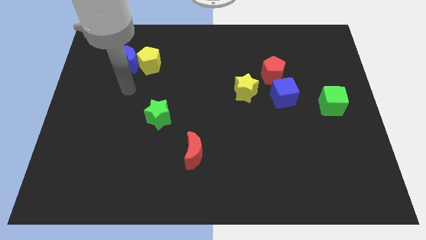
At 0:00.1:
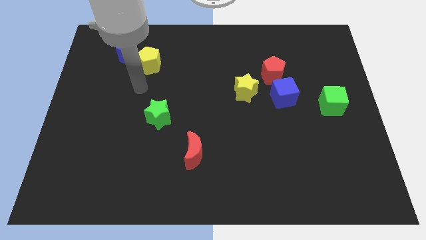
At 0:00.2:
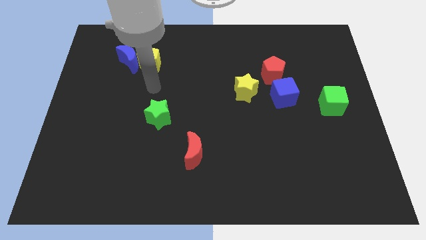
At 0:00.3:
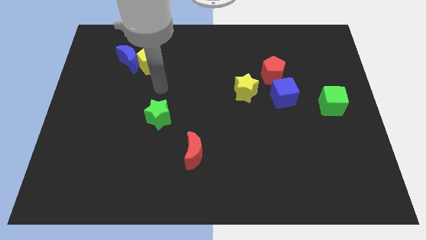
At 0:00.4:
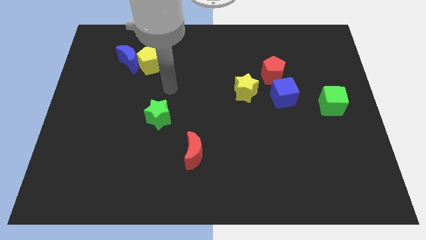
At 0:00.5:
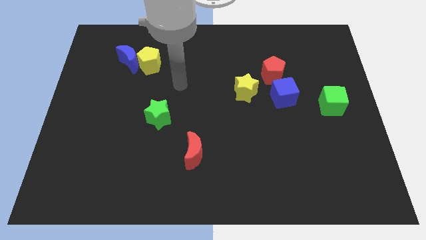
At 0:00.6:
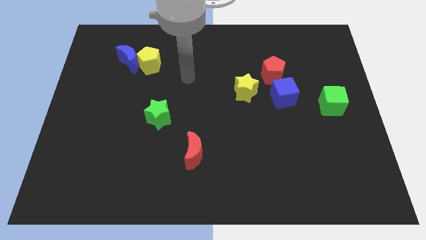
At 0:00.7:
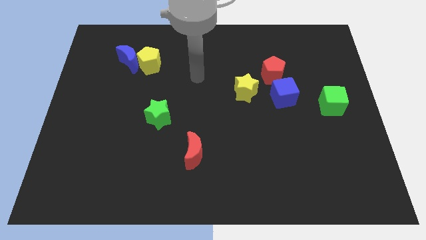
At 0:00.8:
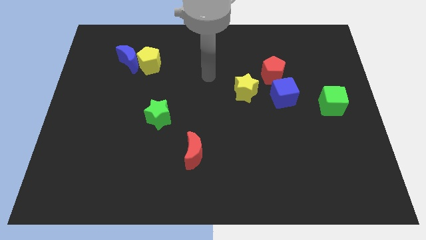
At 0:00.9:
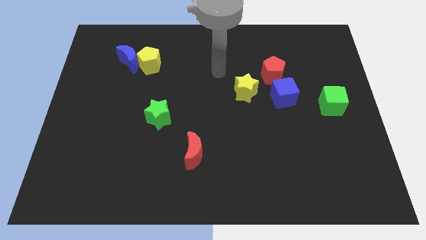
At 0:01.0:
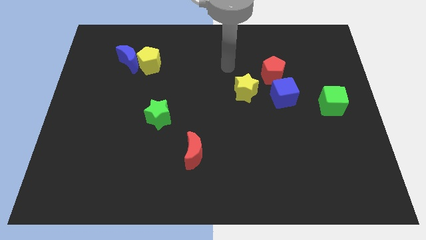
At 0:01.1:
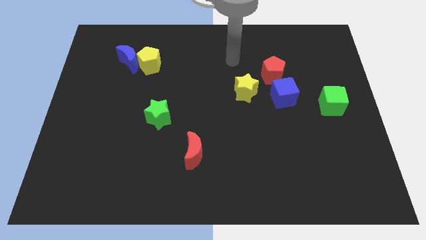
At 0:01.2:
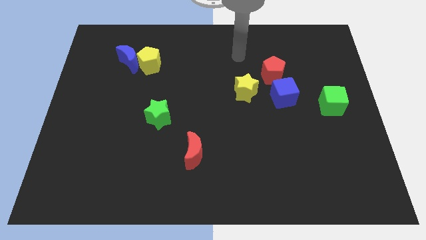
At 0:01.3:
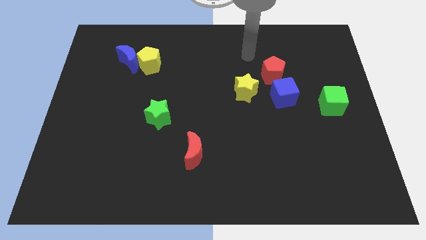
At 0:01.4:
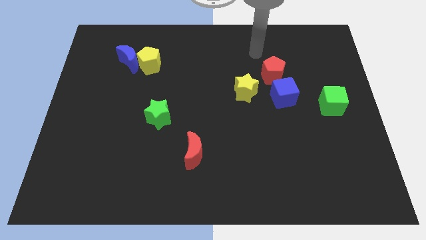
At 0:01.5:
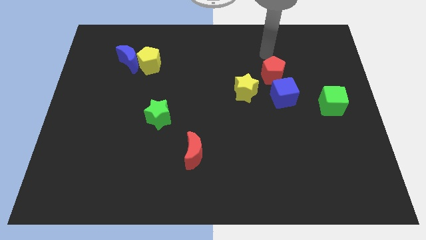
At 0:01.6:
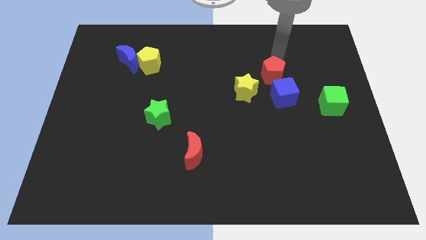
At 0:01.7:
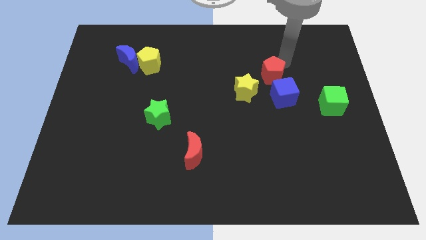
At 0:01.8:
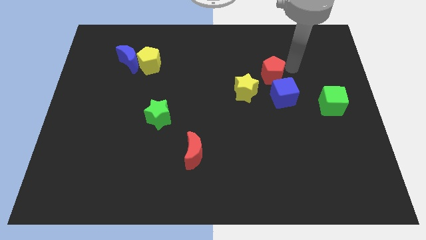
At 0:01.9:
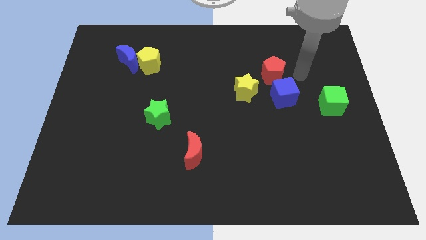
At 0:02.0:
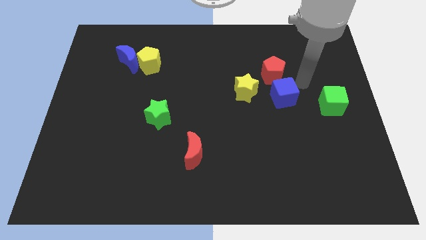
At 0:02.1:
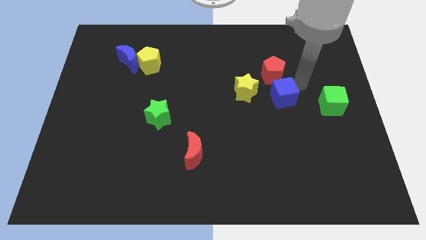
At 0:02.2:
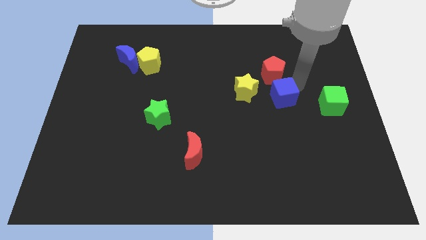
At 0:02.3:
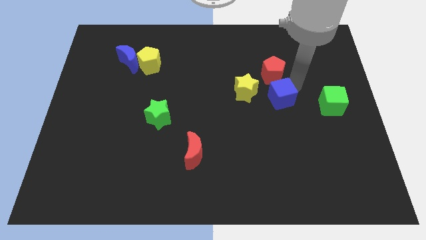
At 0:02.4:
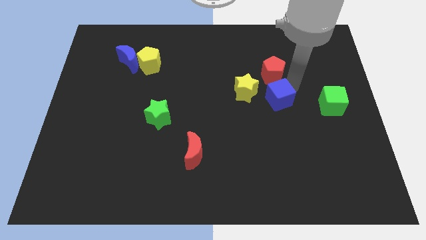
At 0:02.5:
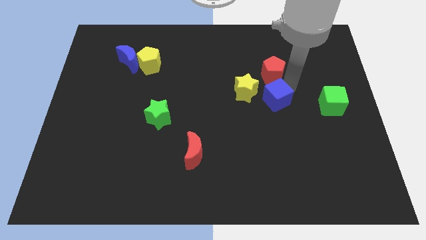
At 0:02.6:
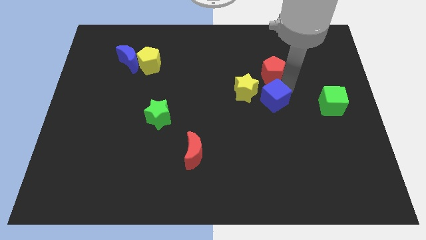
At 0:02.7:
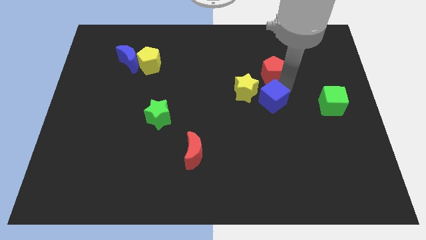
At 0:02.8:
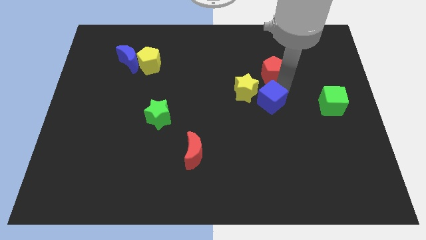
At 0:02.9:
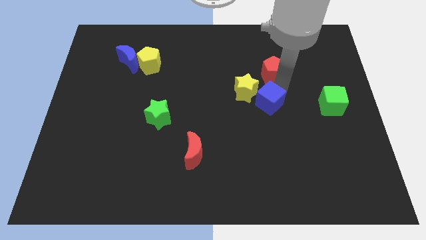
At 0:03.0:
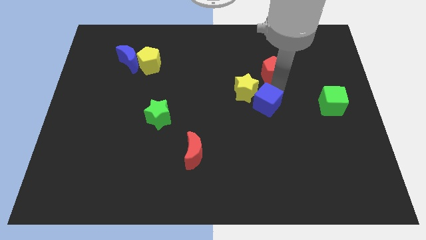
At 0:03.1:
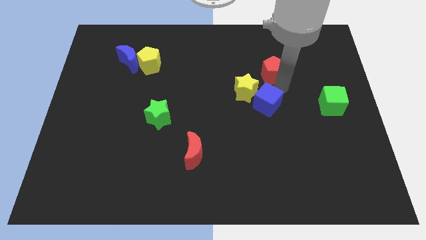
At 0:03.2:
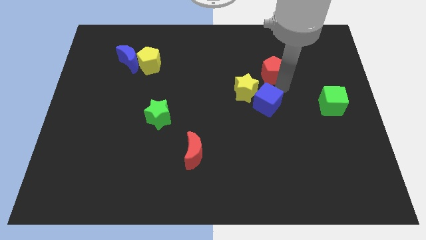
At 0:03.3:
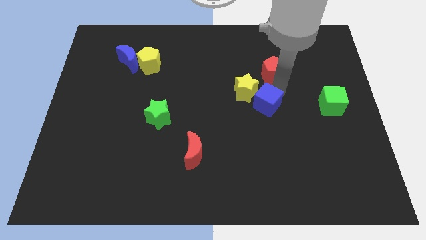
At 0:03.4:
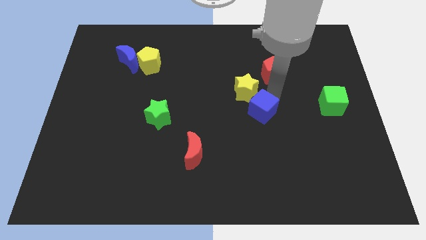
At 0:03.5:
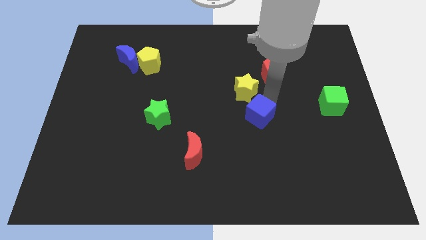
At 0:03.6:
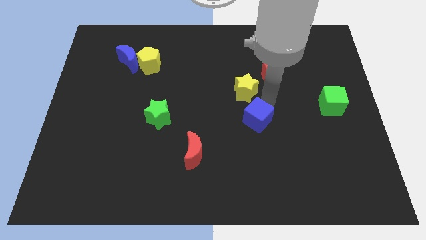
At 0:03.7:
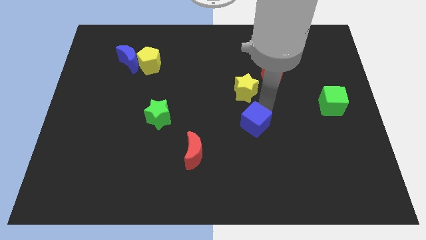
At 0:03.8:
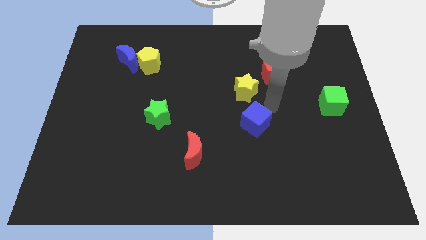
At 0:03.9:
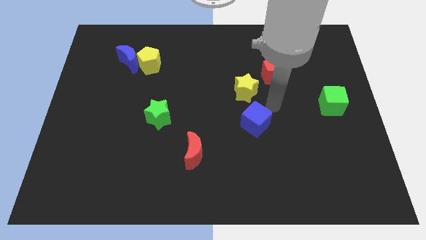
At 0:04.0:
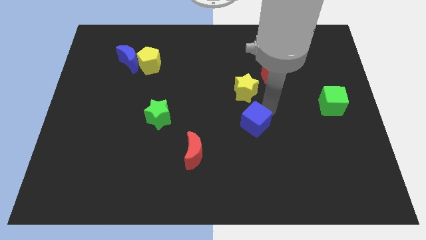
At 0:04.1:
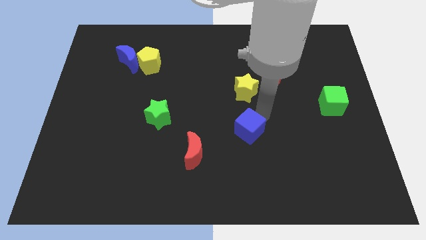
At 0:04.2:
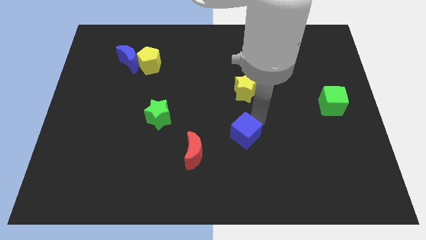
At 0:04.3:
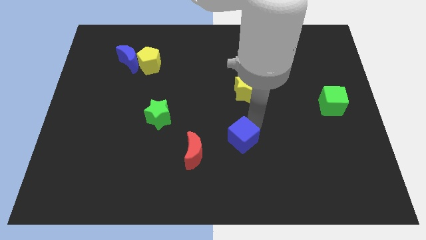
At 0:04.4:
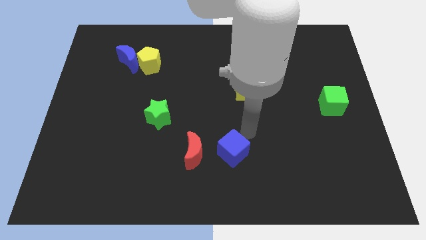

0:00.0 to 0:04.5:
slide the blue cube downwards and left

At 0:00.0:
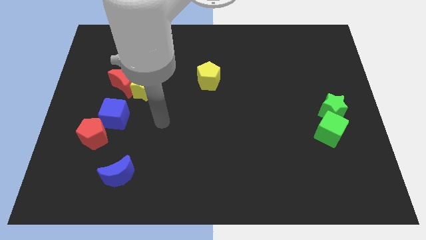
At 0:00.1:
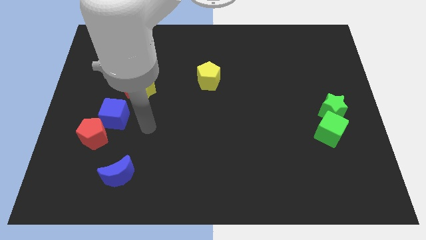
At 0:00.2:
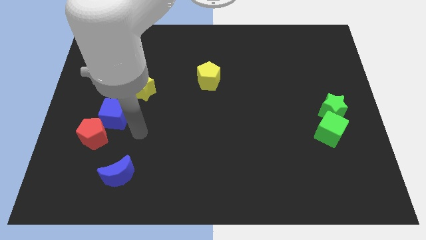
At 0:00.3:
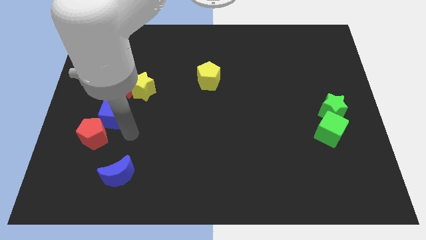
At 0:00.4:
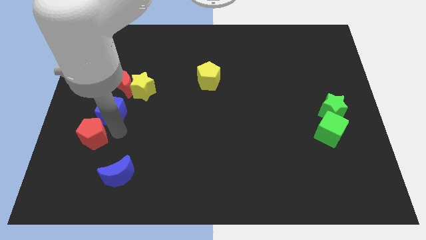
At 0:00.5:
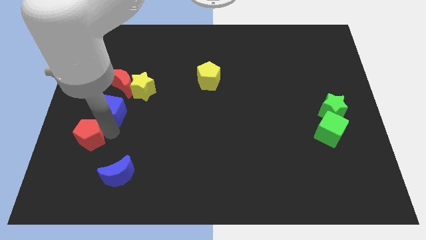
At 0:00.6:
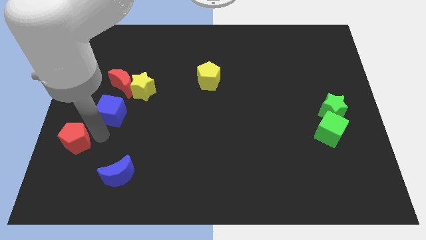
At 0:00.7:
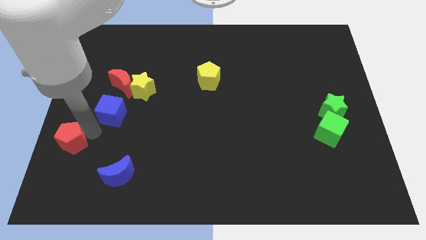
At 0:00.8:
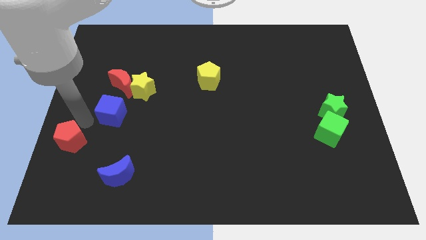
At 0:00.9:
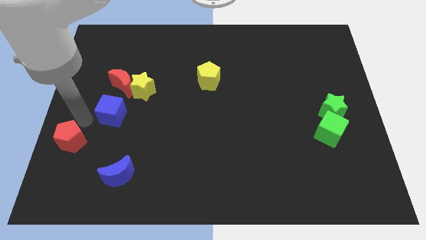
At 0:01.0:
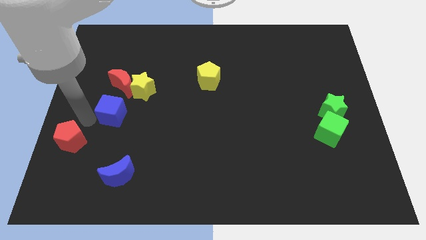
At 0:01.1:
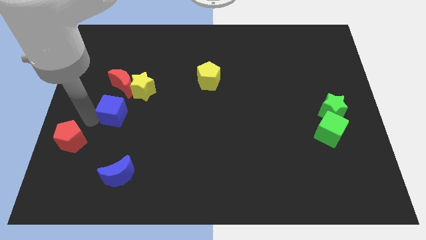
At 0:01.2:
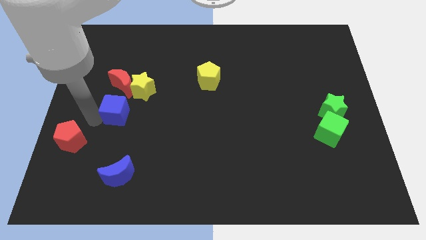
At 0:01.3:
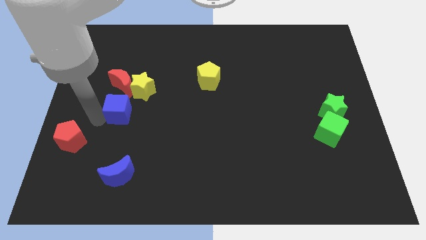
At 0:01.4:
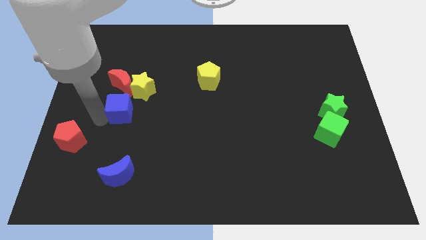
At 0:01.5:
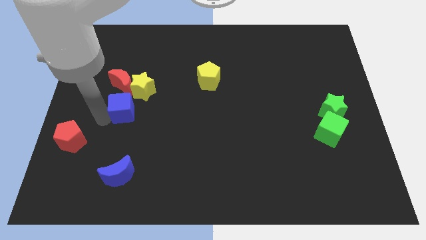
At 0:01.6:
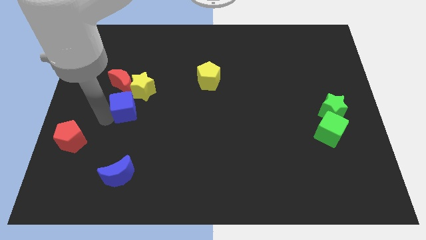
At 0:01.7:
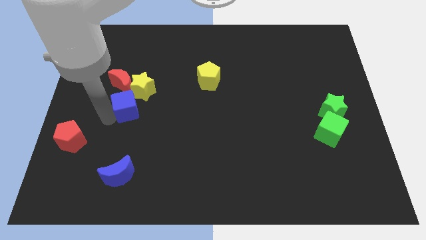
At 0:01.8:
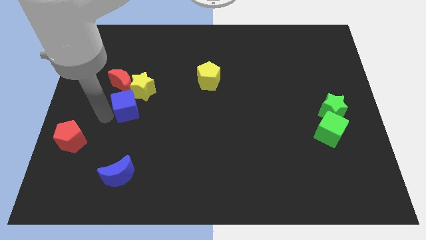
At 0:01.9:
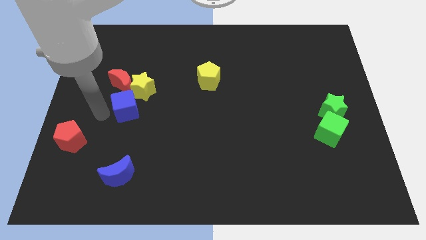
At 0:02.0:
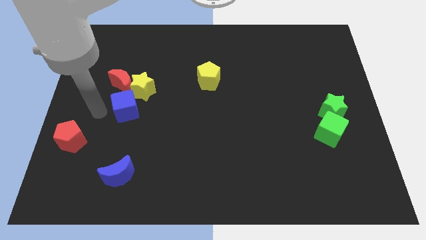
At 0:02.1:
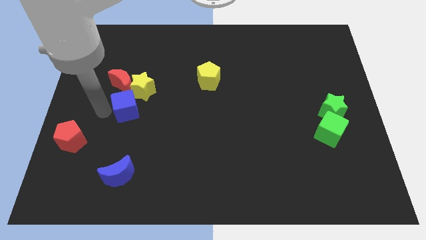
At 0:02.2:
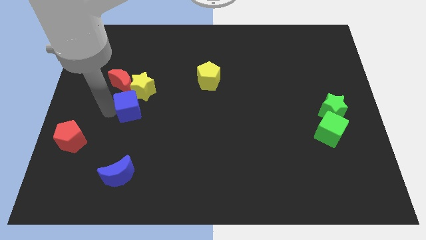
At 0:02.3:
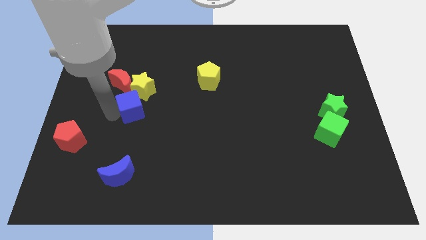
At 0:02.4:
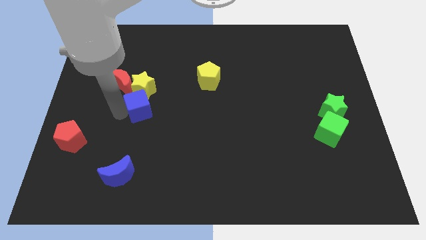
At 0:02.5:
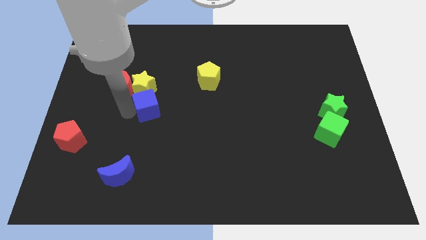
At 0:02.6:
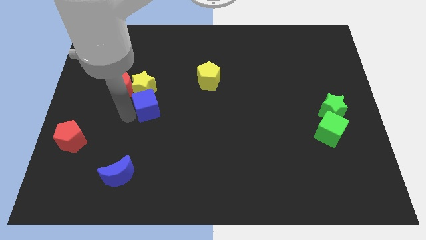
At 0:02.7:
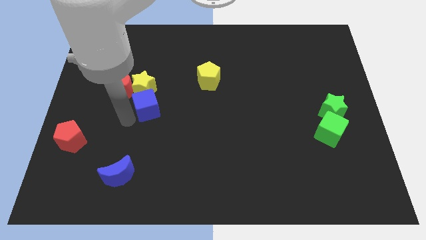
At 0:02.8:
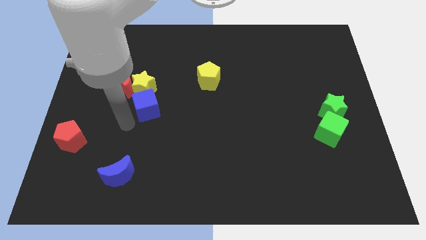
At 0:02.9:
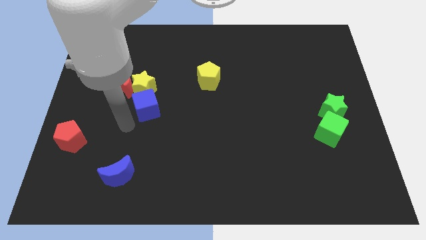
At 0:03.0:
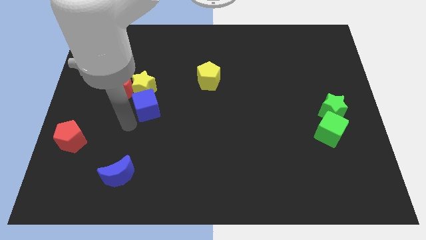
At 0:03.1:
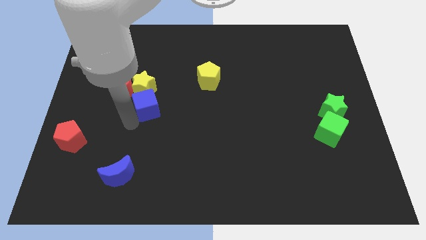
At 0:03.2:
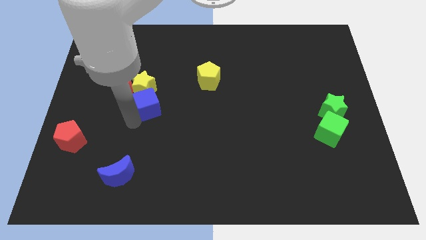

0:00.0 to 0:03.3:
push the blue cube a little bit diagonally up and to the right

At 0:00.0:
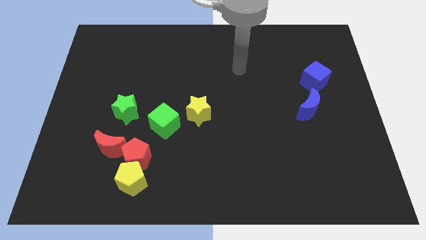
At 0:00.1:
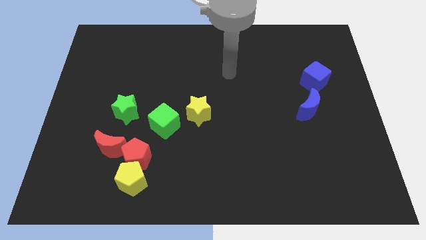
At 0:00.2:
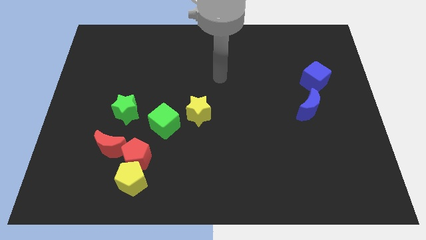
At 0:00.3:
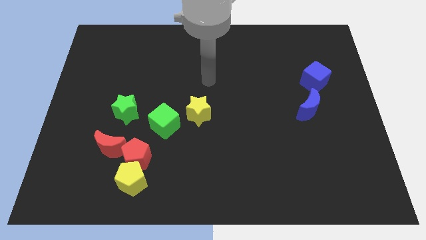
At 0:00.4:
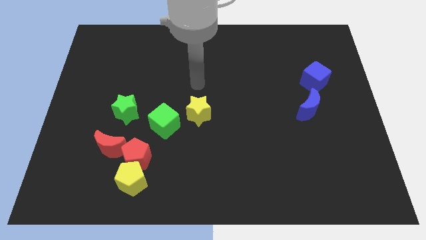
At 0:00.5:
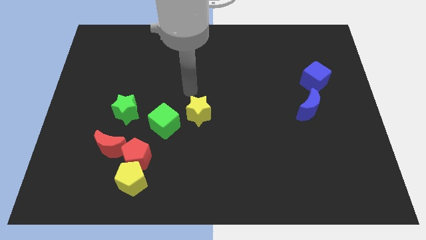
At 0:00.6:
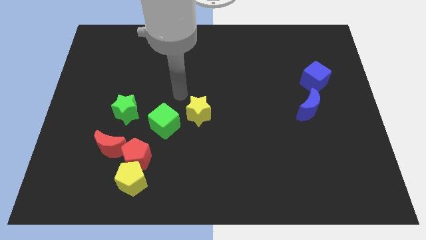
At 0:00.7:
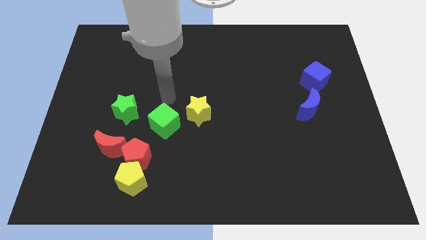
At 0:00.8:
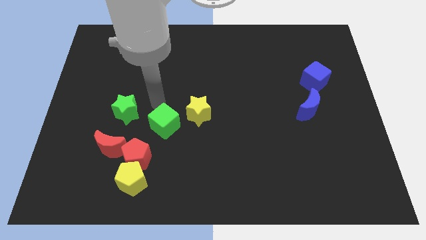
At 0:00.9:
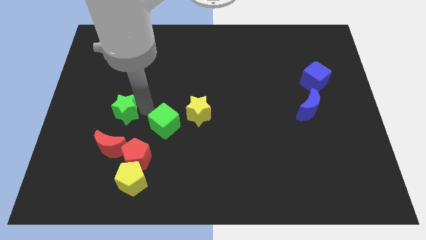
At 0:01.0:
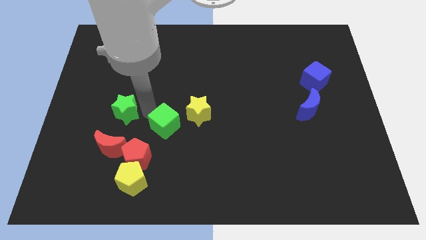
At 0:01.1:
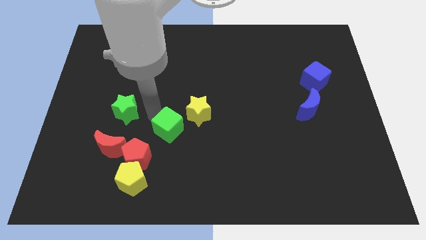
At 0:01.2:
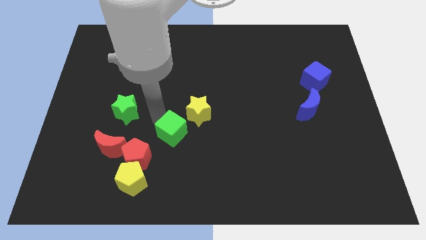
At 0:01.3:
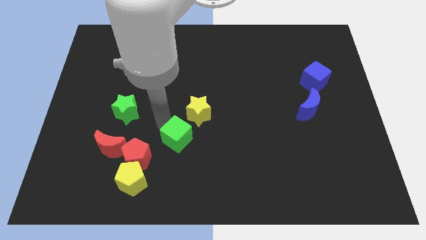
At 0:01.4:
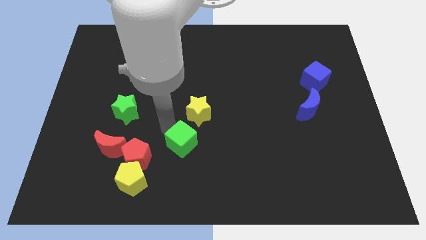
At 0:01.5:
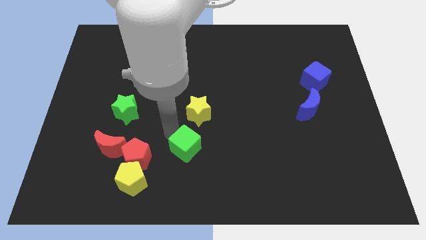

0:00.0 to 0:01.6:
push the green cube a little bit downwards and to the right diagonally
